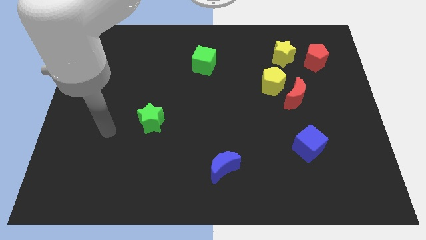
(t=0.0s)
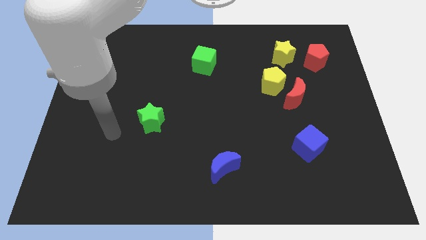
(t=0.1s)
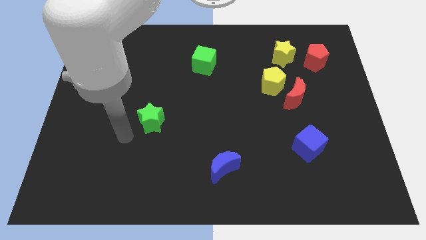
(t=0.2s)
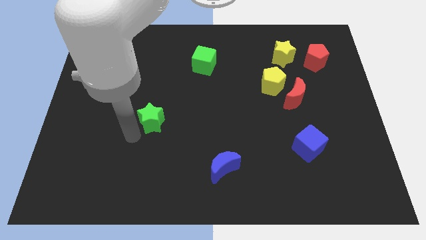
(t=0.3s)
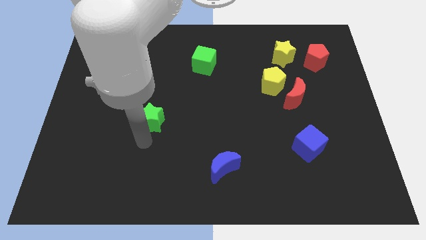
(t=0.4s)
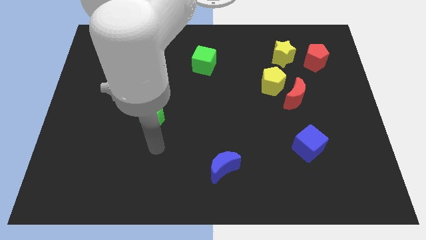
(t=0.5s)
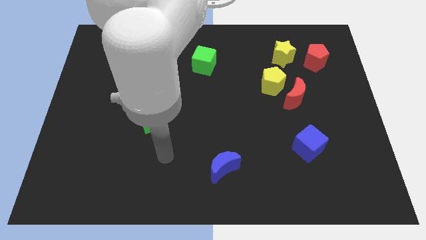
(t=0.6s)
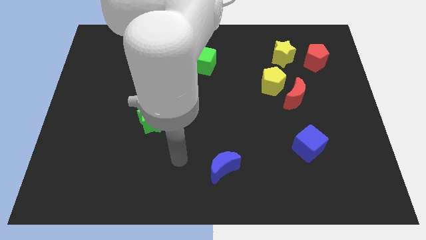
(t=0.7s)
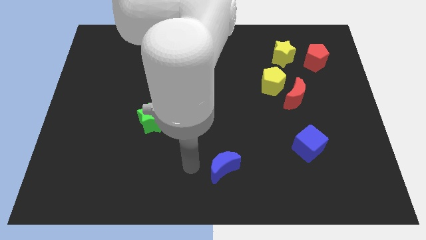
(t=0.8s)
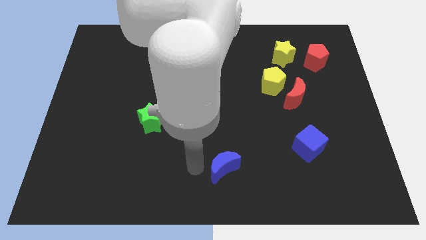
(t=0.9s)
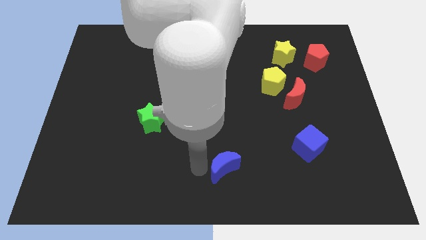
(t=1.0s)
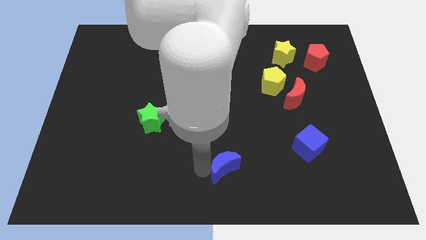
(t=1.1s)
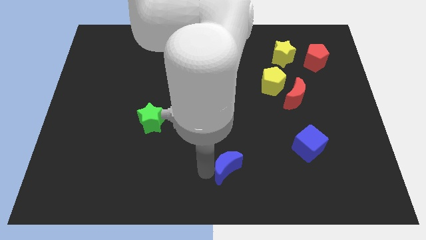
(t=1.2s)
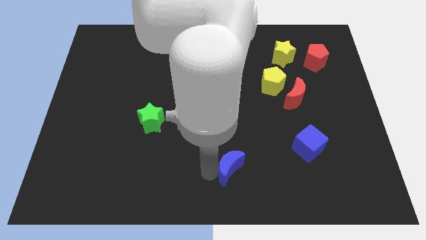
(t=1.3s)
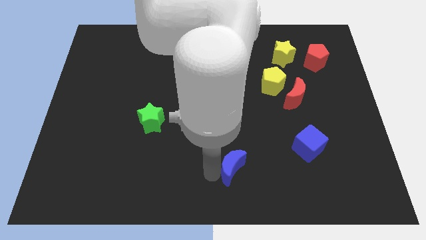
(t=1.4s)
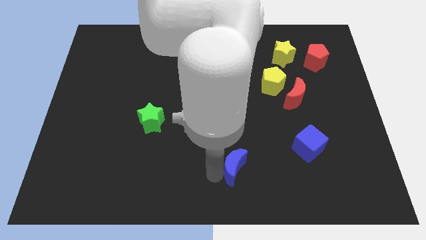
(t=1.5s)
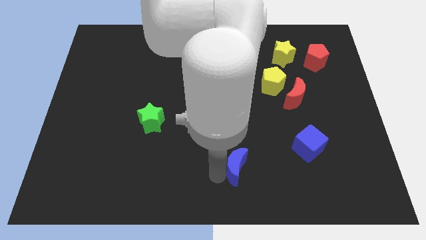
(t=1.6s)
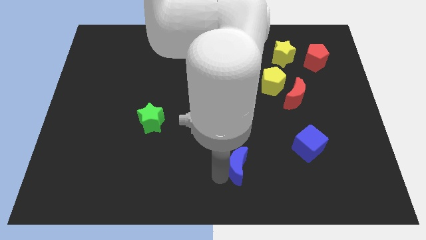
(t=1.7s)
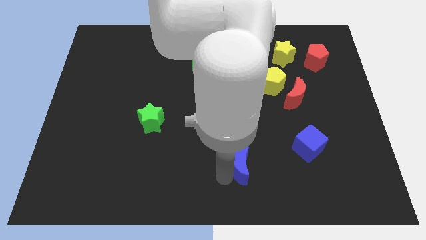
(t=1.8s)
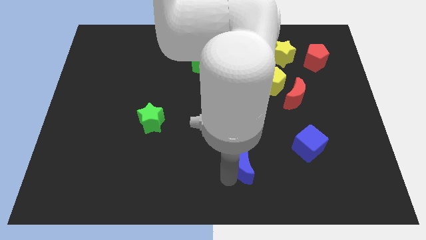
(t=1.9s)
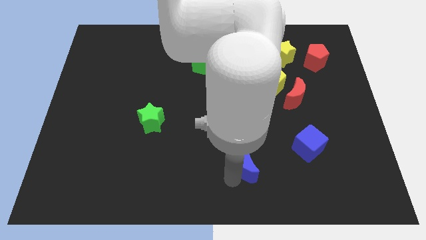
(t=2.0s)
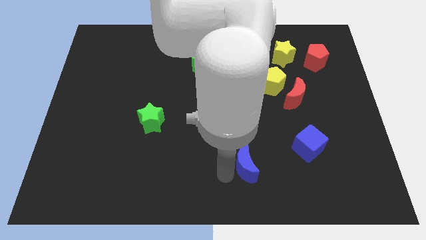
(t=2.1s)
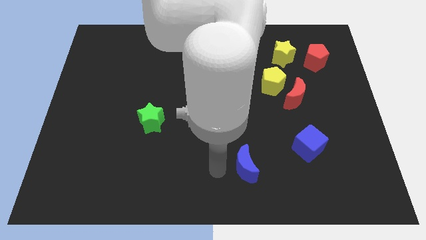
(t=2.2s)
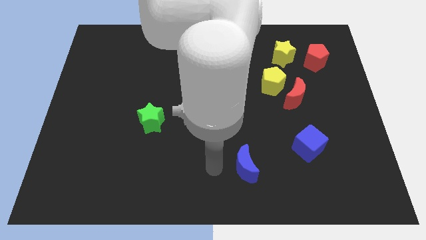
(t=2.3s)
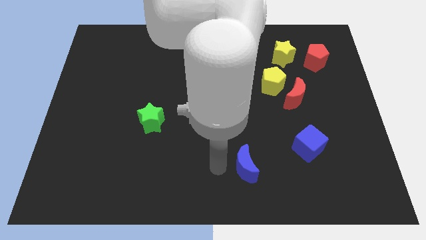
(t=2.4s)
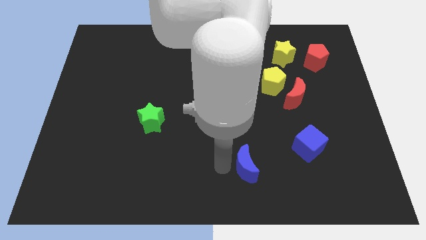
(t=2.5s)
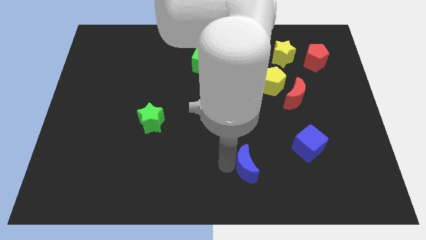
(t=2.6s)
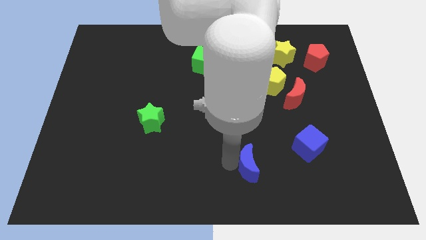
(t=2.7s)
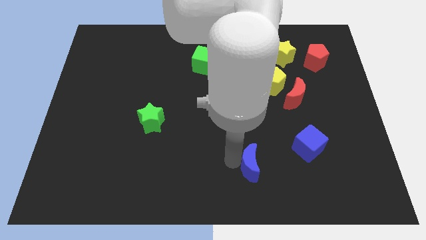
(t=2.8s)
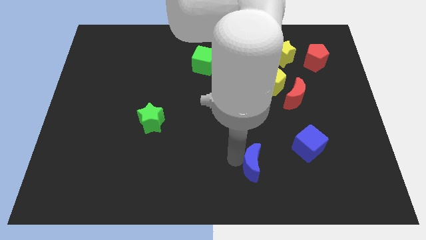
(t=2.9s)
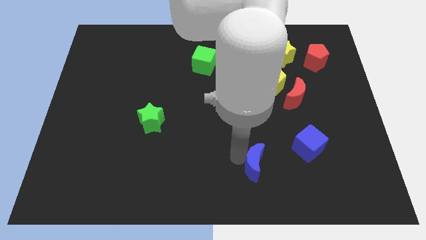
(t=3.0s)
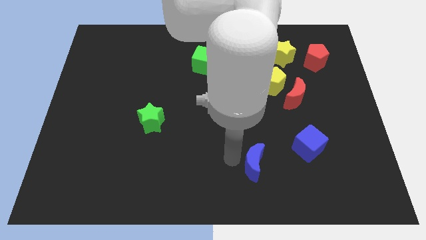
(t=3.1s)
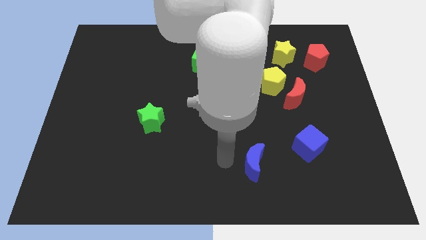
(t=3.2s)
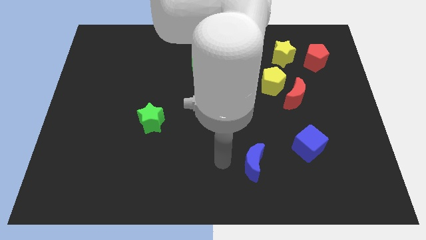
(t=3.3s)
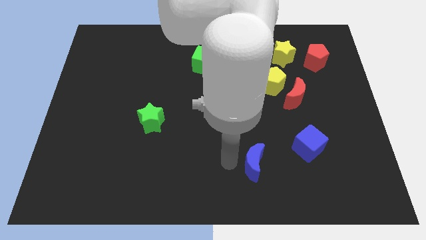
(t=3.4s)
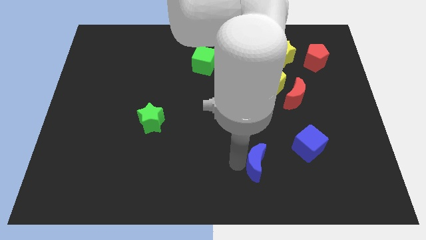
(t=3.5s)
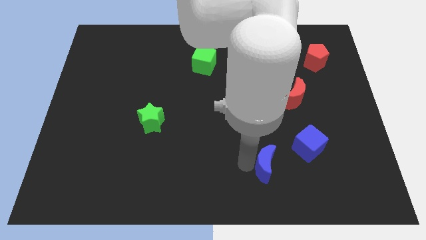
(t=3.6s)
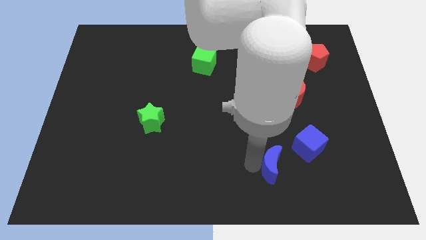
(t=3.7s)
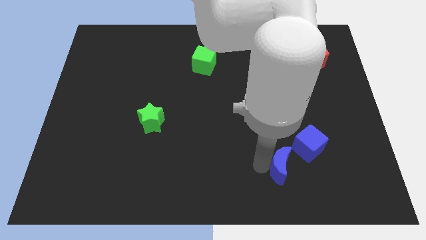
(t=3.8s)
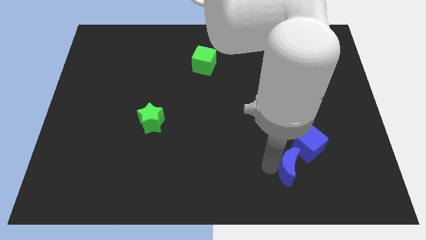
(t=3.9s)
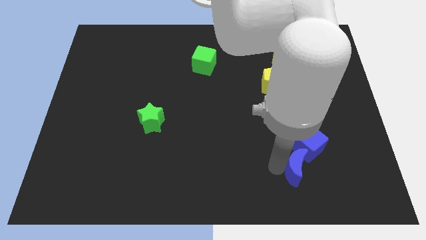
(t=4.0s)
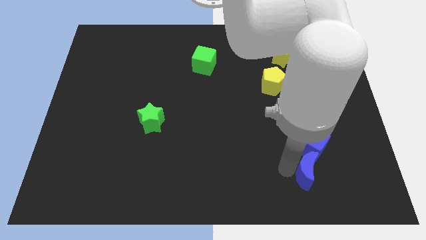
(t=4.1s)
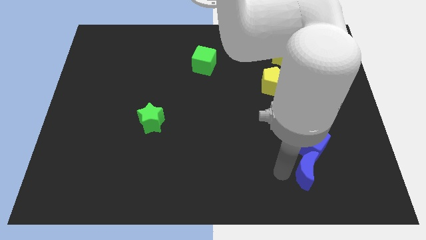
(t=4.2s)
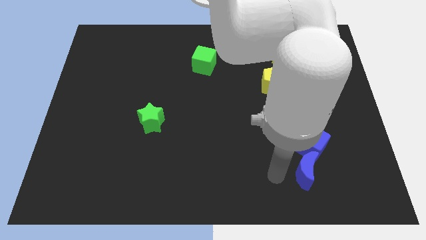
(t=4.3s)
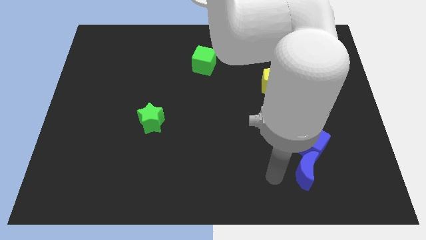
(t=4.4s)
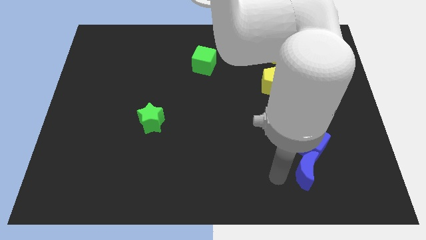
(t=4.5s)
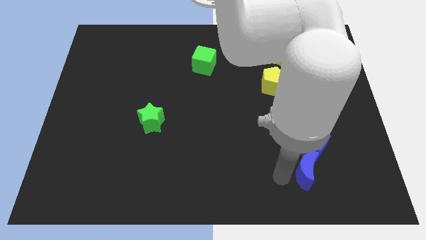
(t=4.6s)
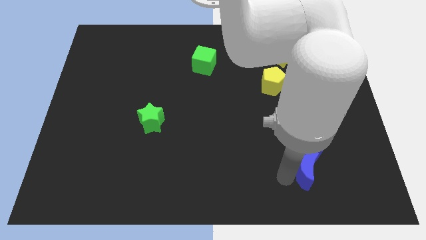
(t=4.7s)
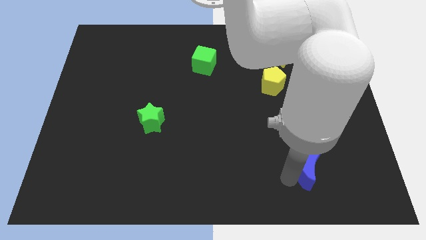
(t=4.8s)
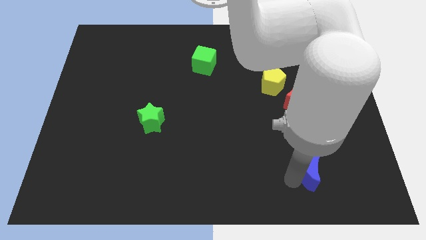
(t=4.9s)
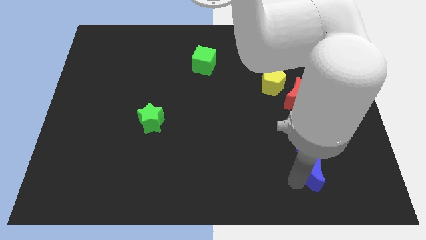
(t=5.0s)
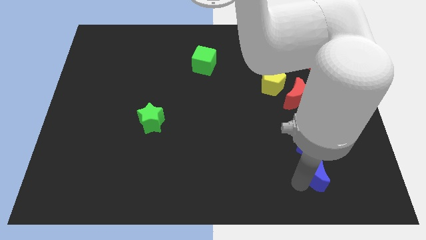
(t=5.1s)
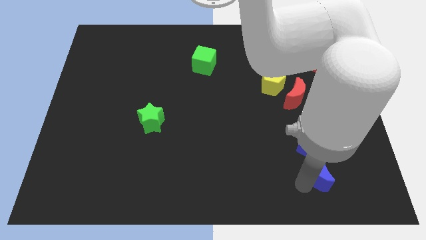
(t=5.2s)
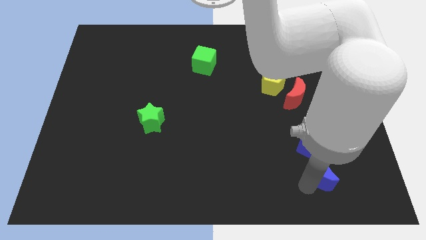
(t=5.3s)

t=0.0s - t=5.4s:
slide the blue moon diagonally down and to the right of the blue cube
